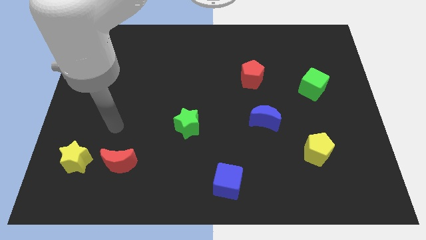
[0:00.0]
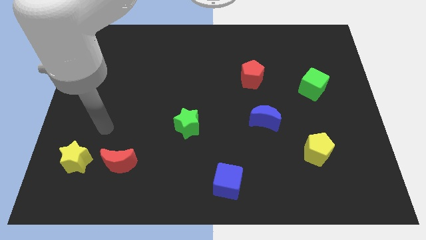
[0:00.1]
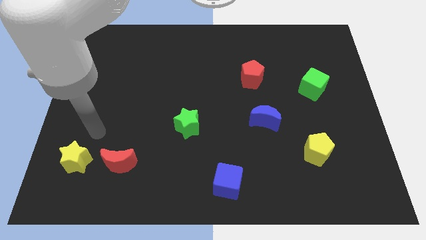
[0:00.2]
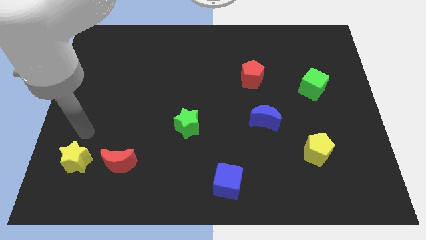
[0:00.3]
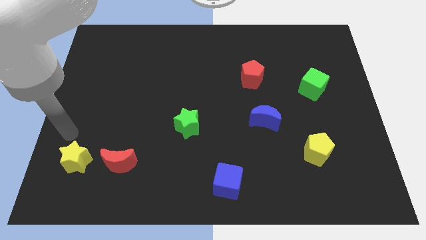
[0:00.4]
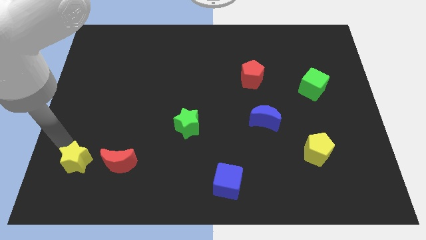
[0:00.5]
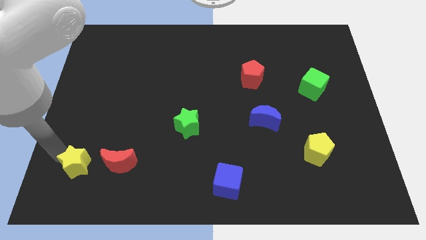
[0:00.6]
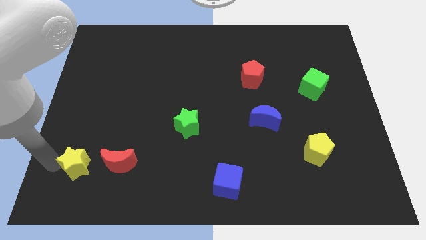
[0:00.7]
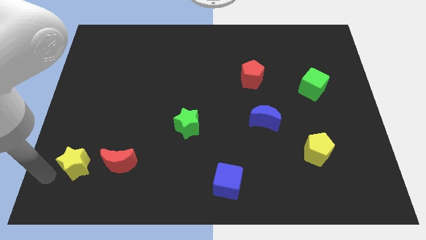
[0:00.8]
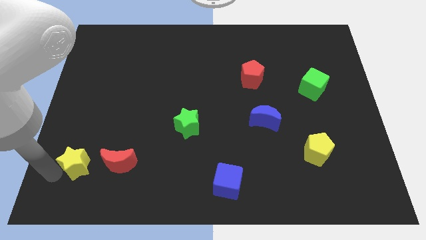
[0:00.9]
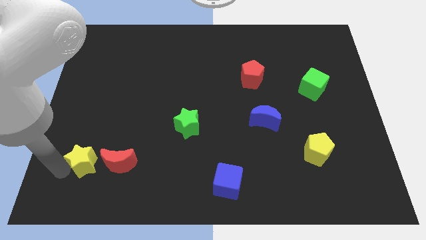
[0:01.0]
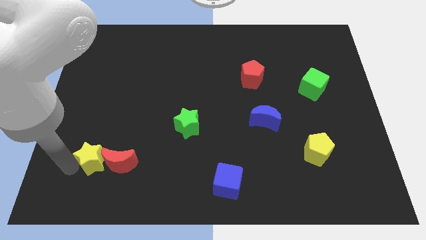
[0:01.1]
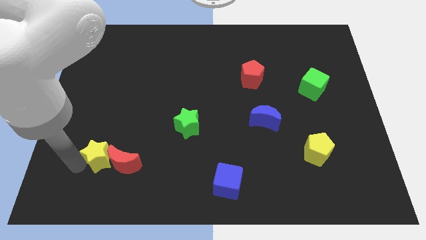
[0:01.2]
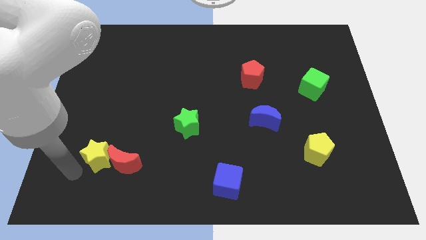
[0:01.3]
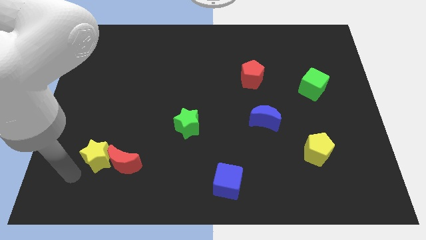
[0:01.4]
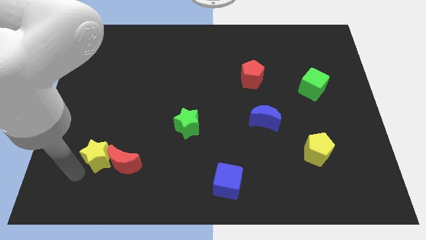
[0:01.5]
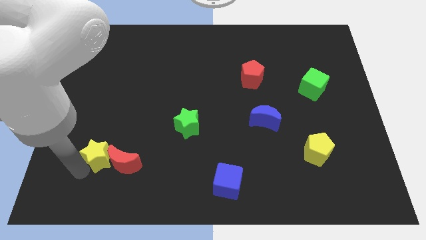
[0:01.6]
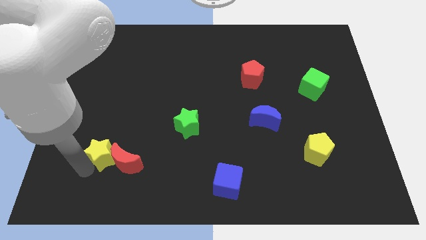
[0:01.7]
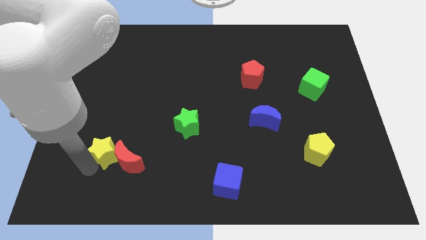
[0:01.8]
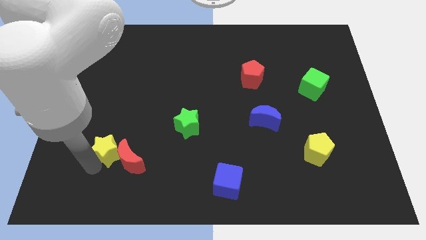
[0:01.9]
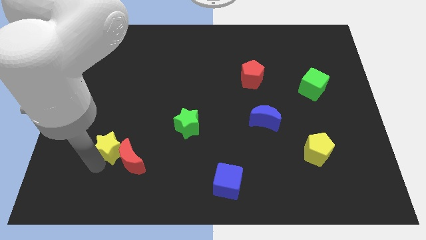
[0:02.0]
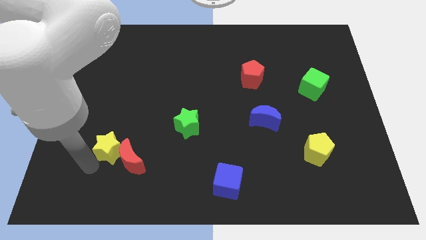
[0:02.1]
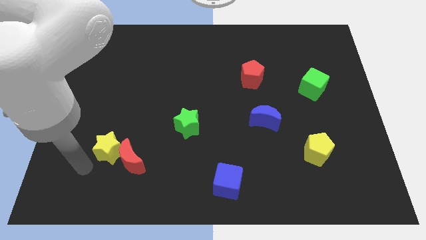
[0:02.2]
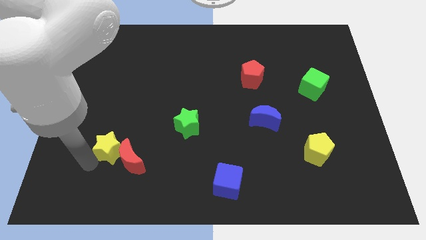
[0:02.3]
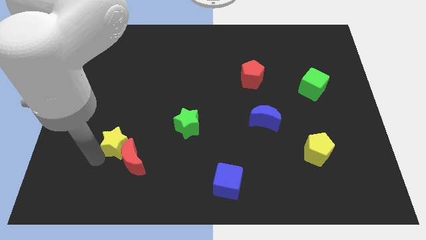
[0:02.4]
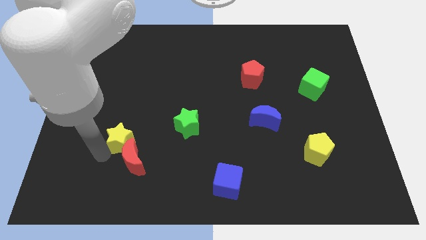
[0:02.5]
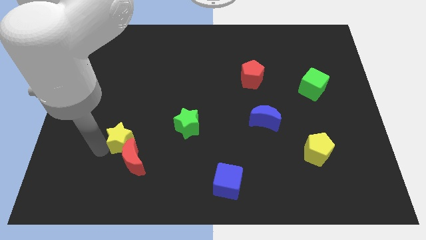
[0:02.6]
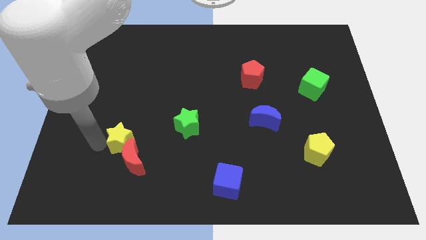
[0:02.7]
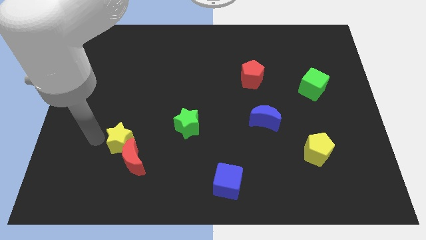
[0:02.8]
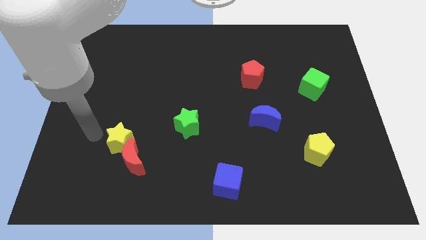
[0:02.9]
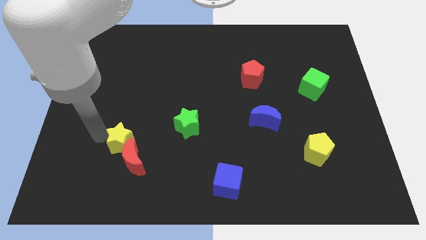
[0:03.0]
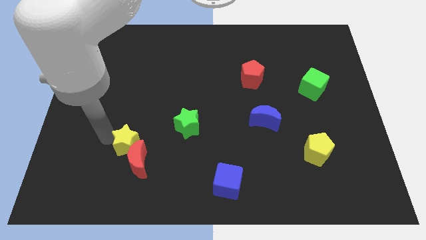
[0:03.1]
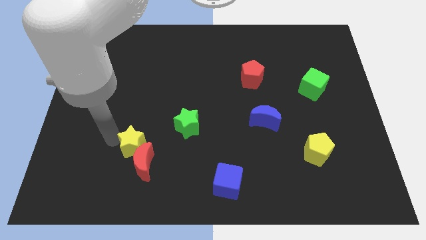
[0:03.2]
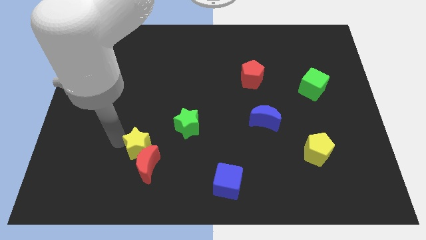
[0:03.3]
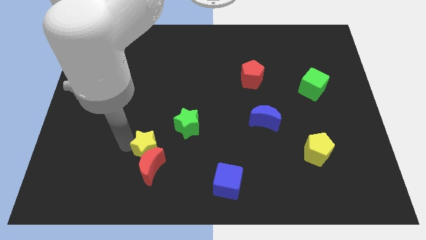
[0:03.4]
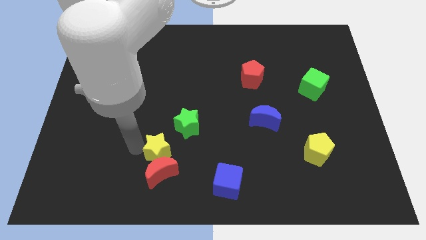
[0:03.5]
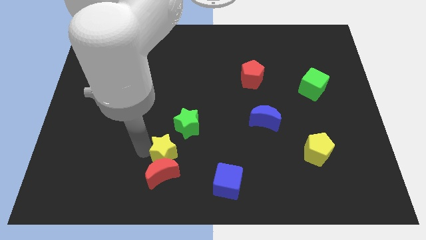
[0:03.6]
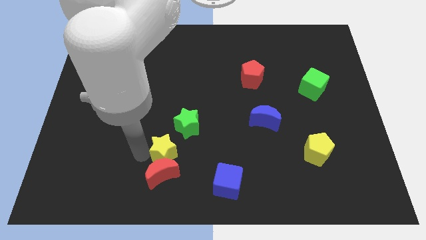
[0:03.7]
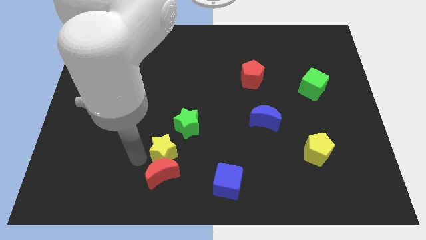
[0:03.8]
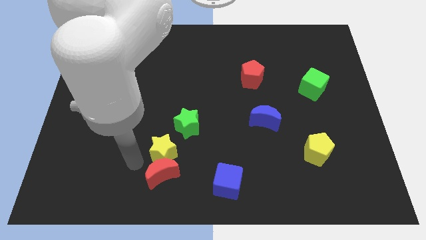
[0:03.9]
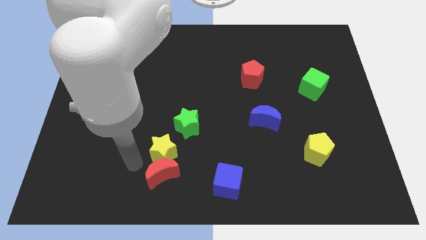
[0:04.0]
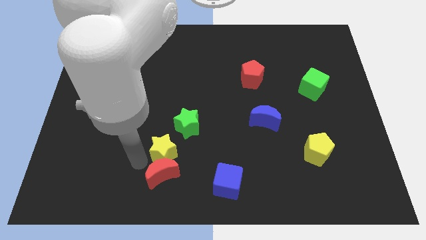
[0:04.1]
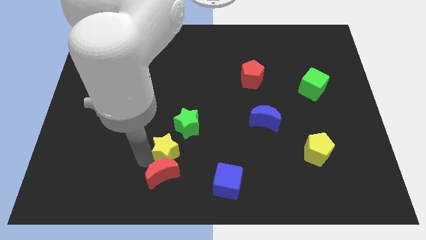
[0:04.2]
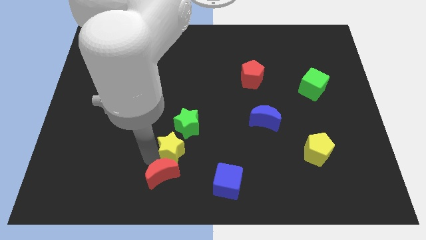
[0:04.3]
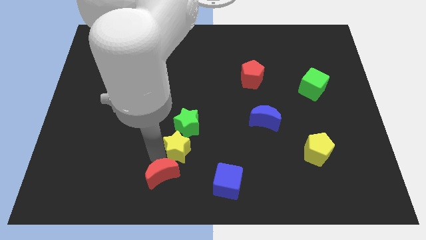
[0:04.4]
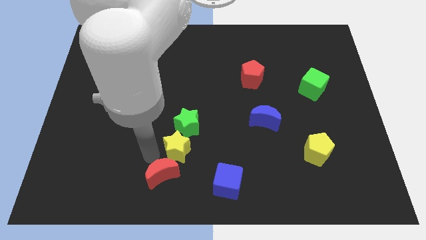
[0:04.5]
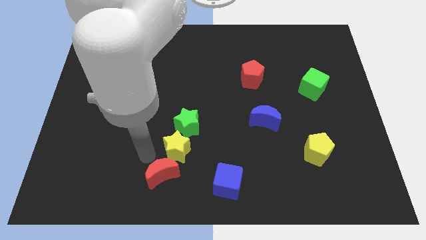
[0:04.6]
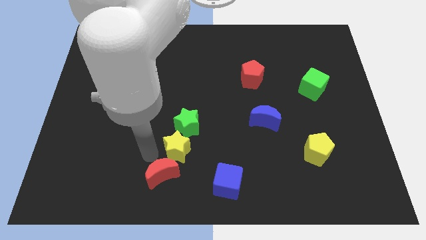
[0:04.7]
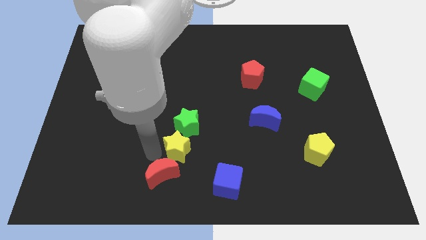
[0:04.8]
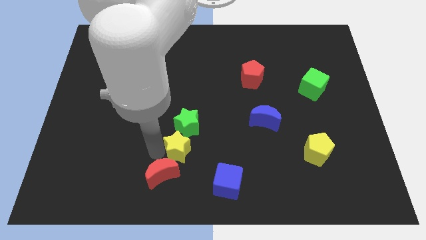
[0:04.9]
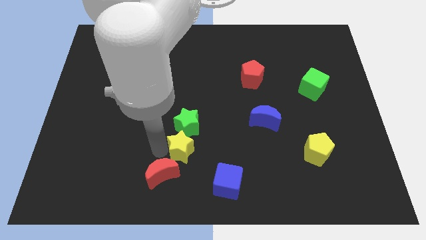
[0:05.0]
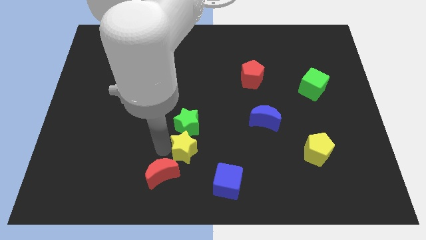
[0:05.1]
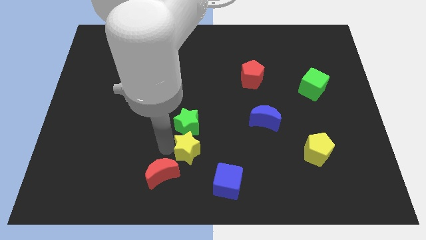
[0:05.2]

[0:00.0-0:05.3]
put the yellow star to the bottom right of the green star

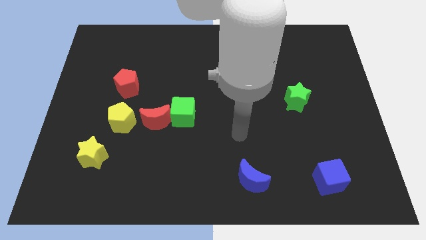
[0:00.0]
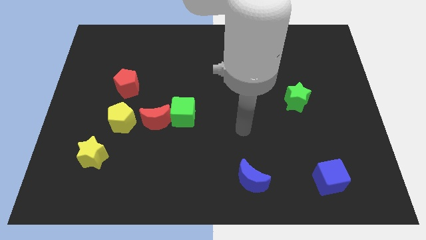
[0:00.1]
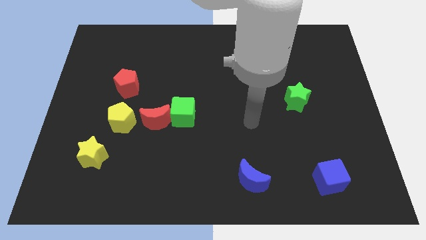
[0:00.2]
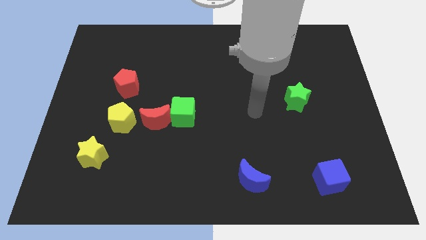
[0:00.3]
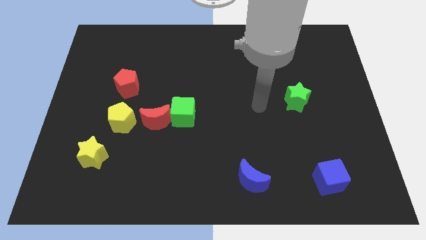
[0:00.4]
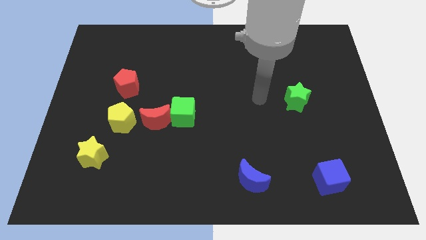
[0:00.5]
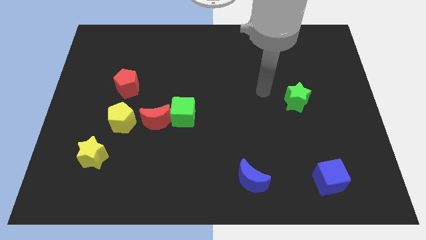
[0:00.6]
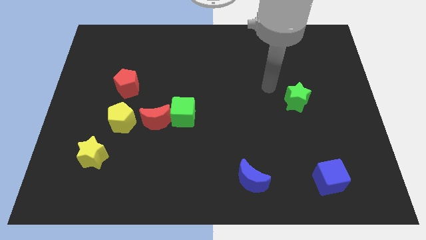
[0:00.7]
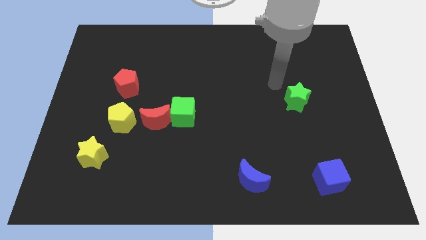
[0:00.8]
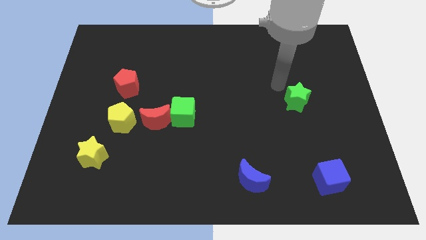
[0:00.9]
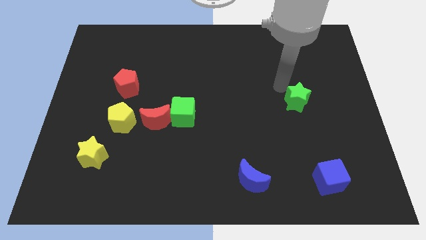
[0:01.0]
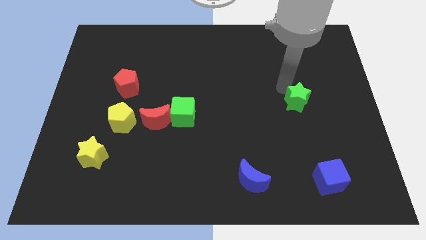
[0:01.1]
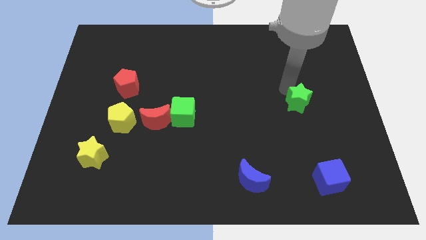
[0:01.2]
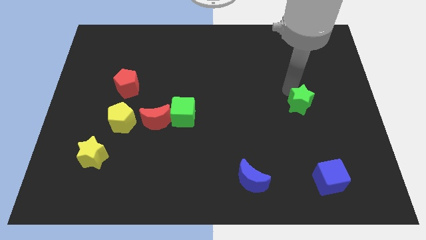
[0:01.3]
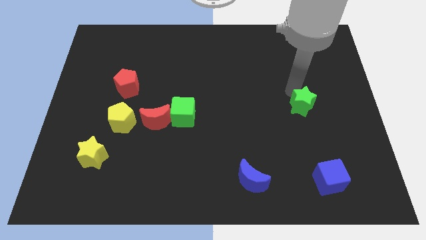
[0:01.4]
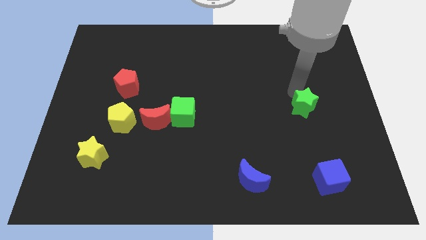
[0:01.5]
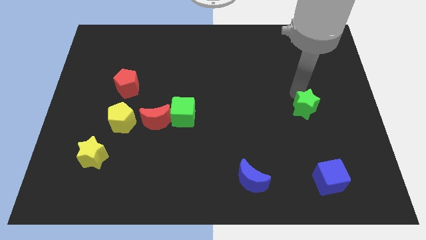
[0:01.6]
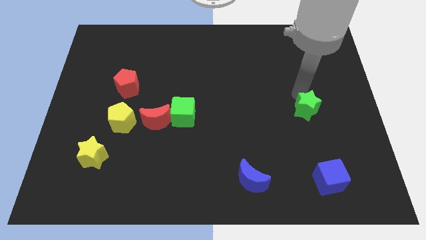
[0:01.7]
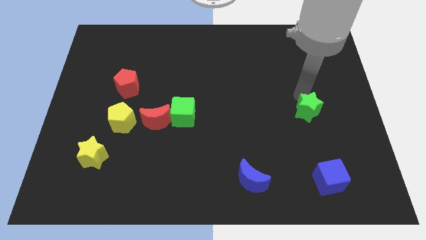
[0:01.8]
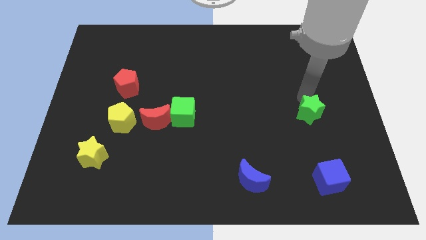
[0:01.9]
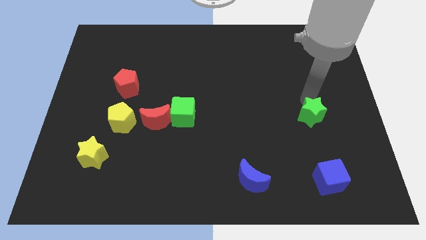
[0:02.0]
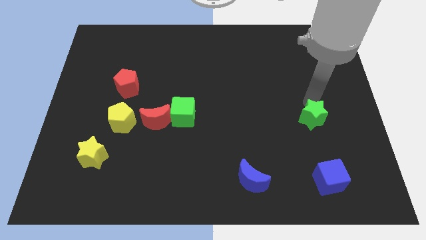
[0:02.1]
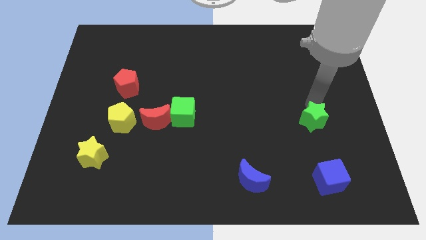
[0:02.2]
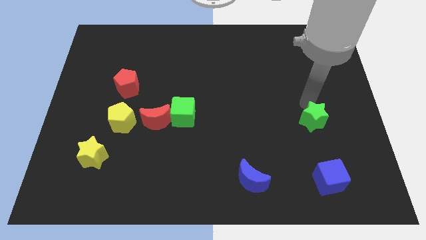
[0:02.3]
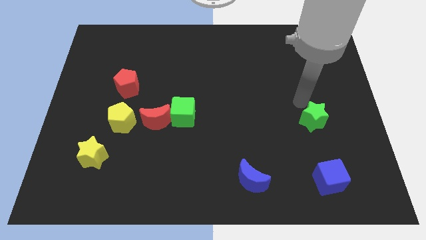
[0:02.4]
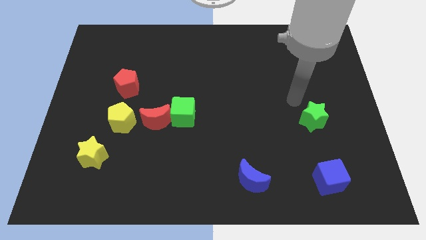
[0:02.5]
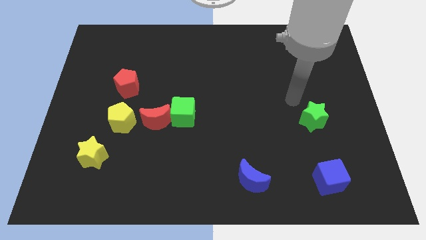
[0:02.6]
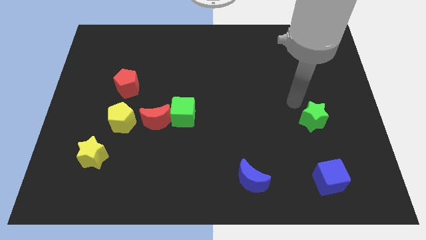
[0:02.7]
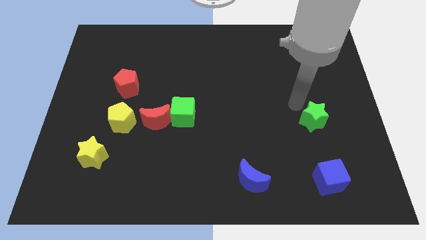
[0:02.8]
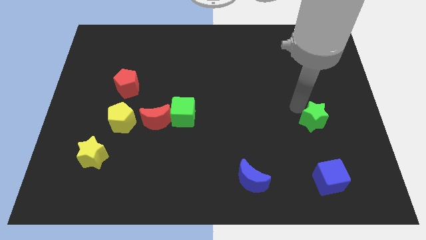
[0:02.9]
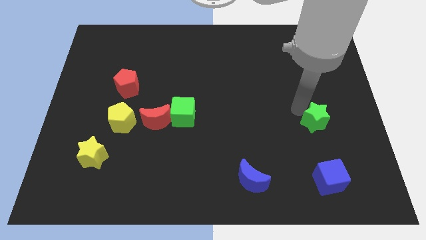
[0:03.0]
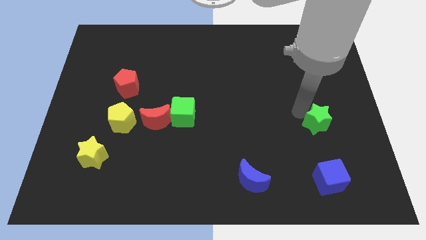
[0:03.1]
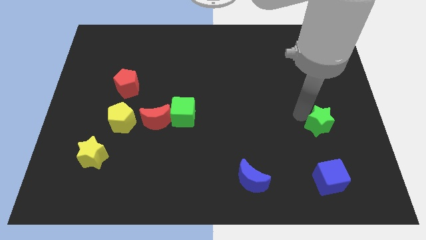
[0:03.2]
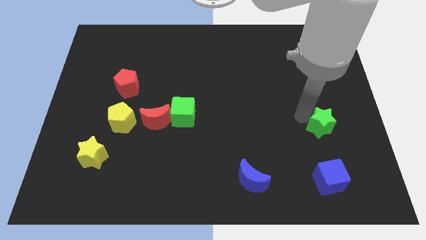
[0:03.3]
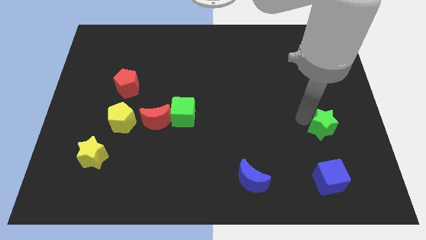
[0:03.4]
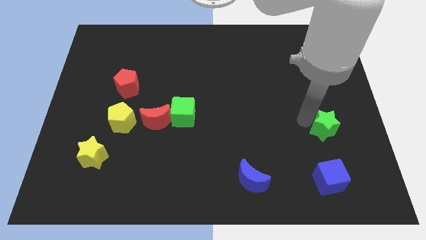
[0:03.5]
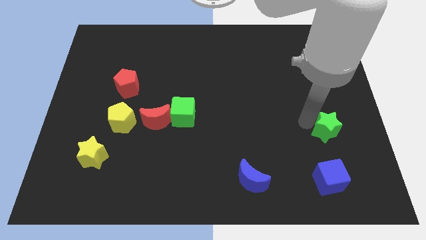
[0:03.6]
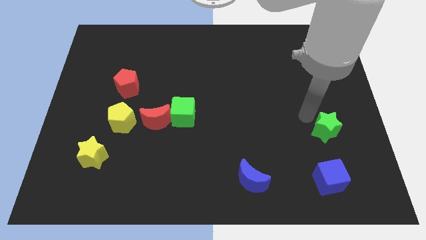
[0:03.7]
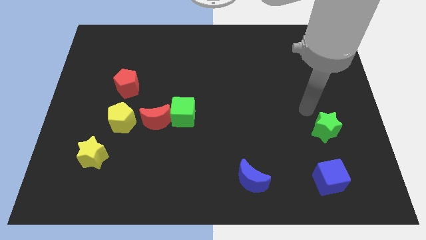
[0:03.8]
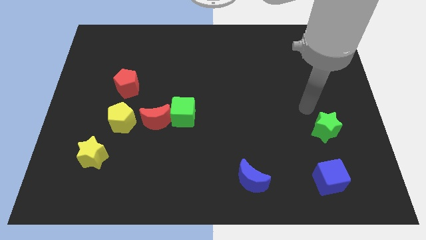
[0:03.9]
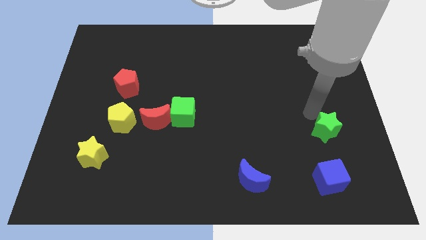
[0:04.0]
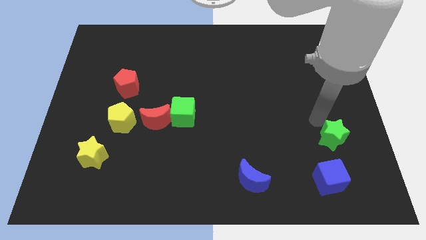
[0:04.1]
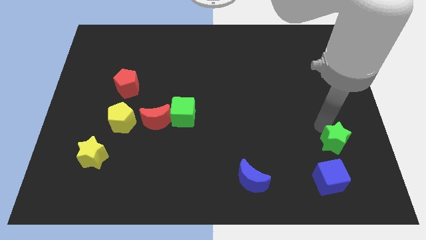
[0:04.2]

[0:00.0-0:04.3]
move the green star diagonally up and to the right of the blue cube
